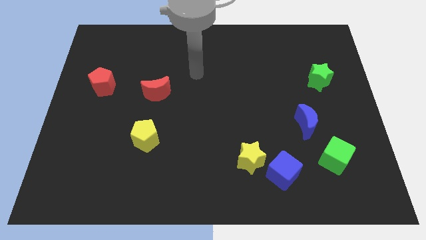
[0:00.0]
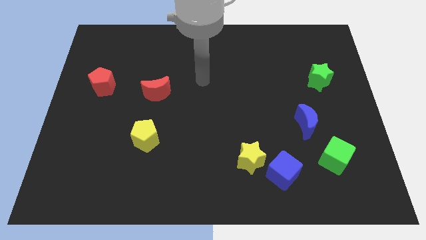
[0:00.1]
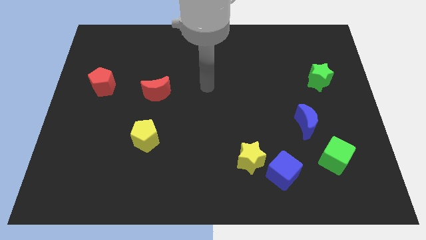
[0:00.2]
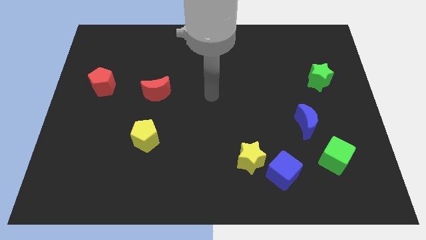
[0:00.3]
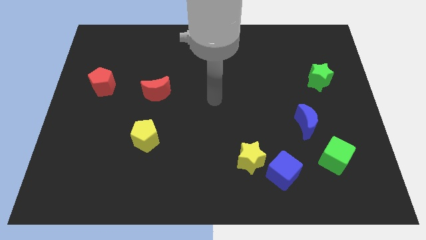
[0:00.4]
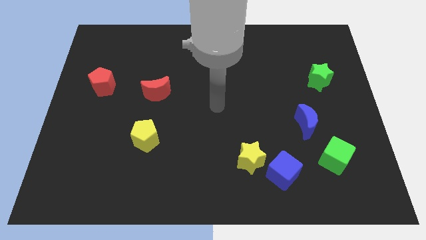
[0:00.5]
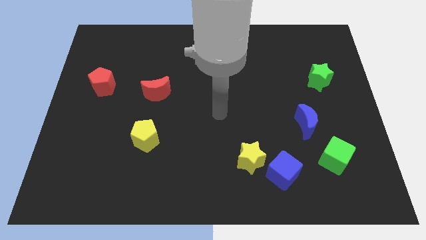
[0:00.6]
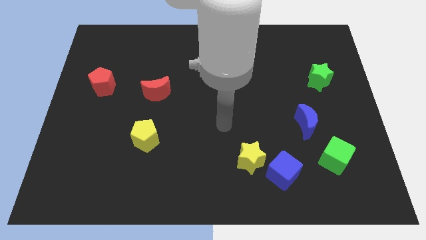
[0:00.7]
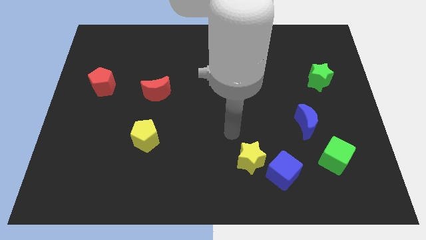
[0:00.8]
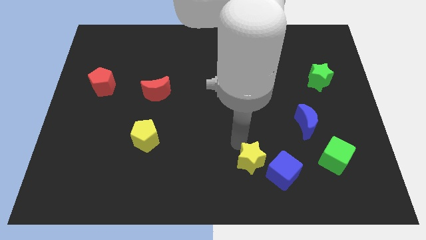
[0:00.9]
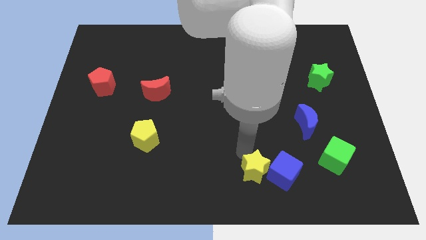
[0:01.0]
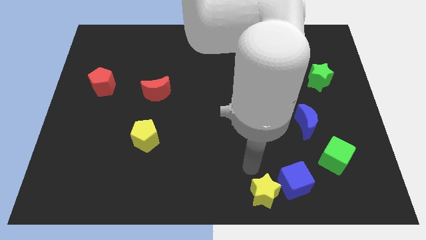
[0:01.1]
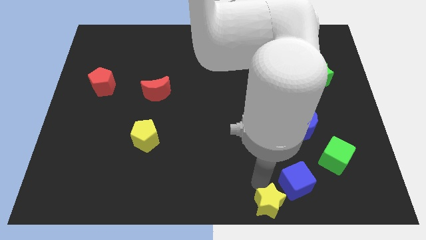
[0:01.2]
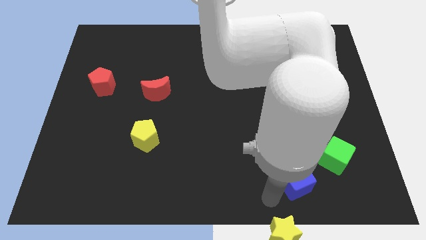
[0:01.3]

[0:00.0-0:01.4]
pull the blue cube apart from the yellow star

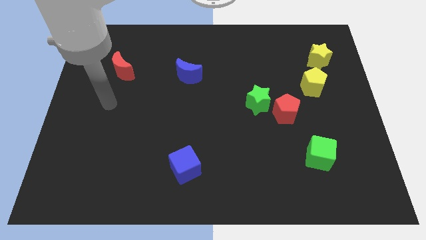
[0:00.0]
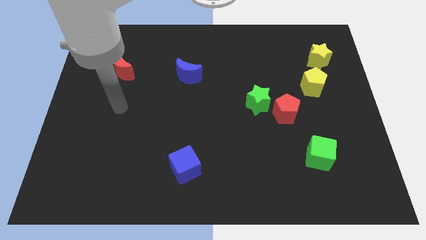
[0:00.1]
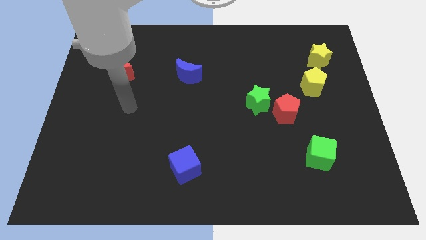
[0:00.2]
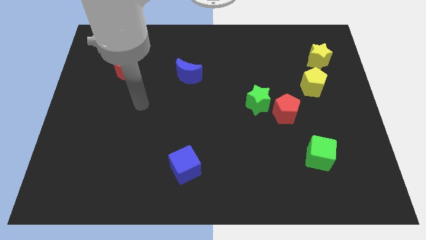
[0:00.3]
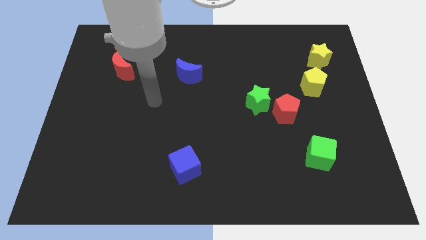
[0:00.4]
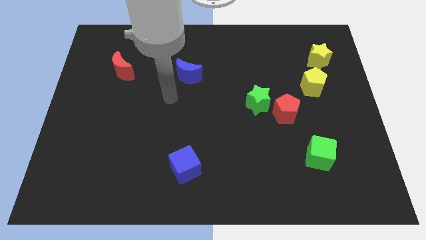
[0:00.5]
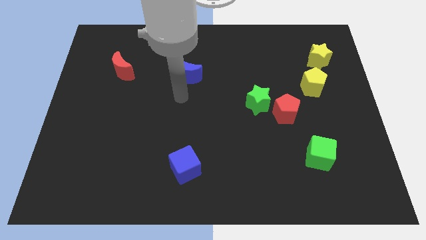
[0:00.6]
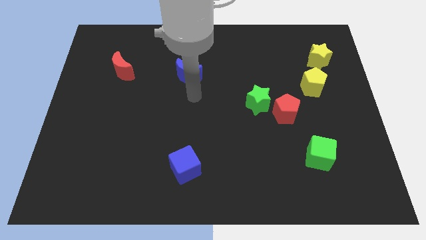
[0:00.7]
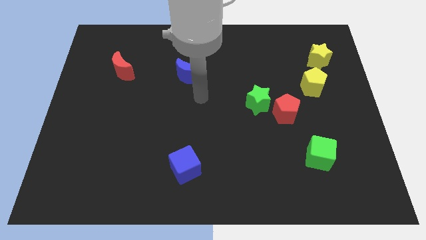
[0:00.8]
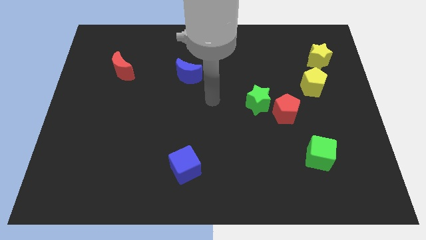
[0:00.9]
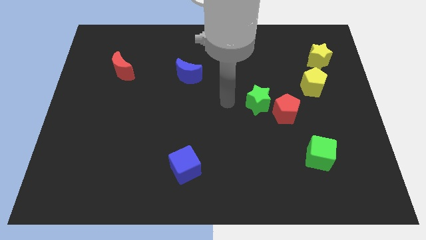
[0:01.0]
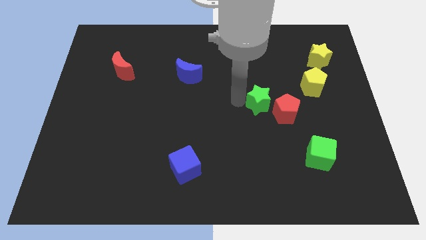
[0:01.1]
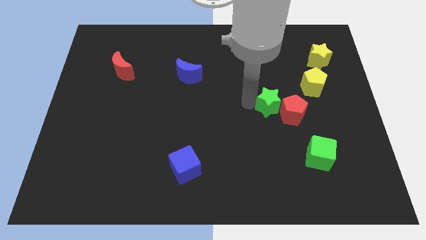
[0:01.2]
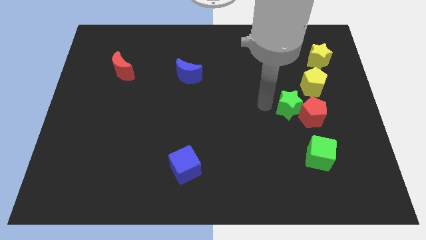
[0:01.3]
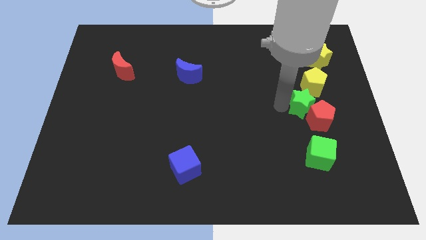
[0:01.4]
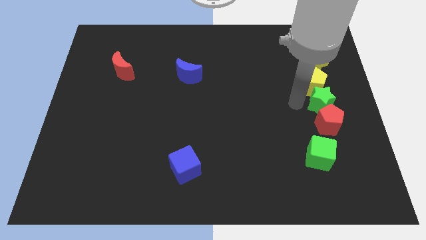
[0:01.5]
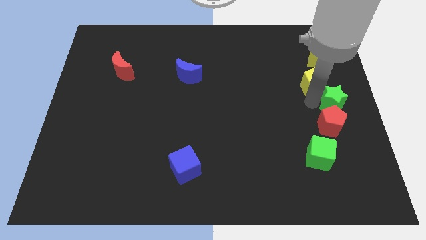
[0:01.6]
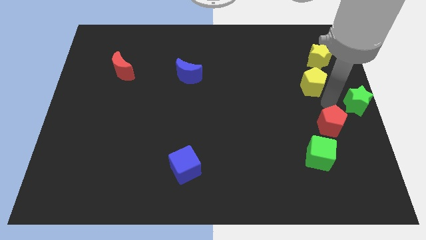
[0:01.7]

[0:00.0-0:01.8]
pull the red pentagon apart from the green star

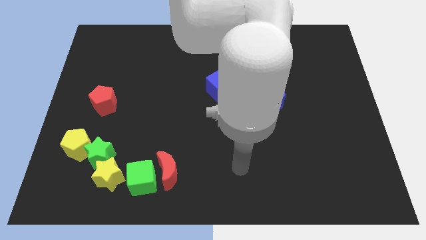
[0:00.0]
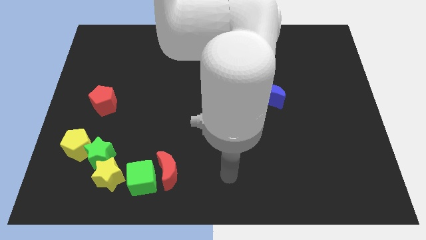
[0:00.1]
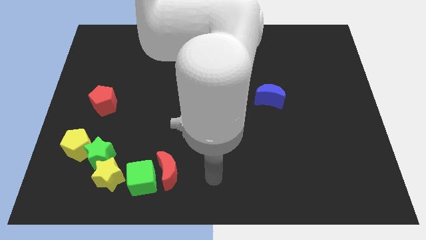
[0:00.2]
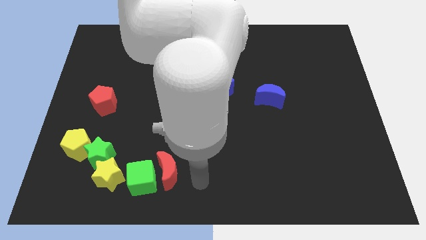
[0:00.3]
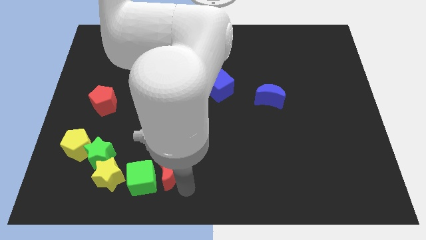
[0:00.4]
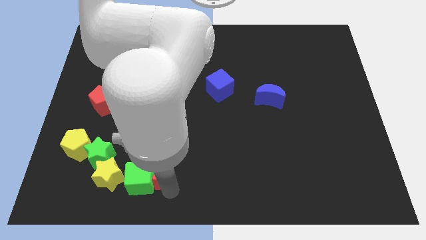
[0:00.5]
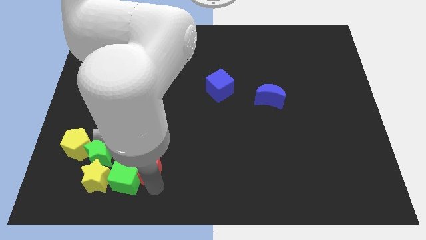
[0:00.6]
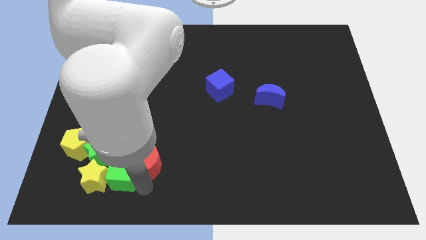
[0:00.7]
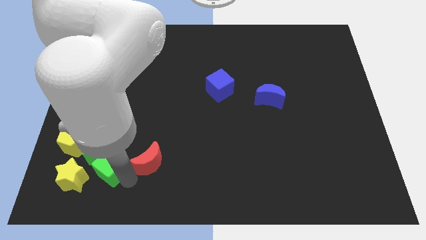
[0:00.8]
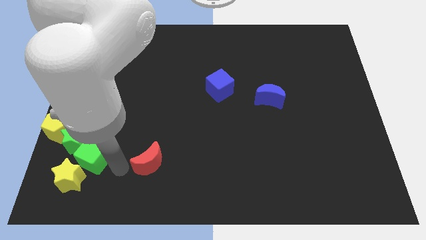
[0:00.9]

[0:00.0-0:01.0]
move the red moon away from the green cube

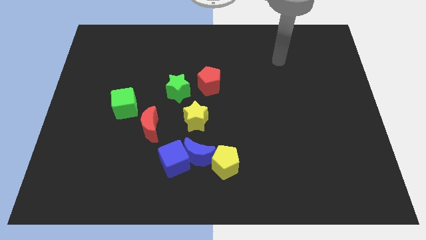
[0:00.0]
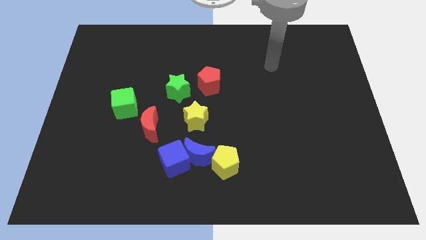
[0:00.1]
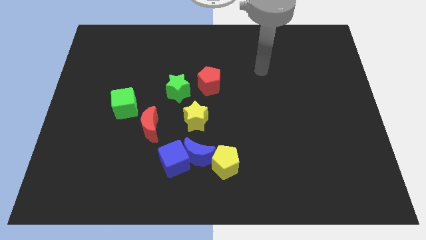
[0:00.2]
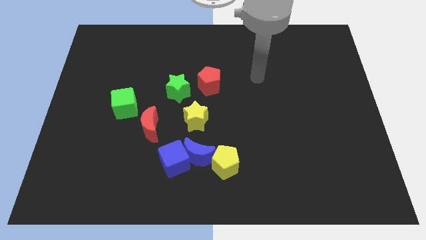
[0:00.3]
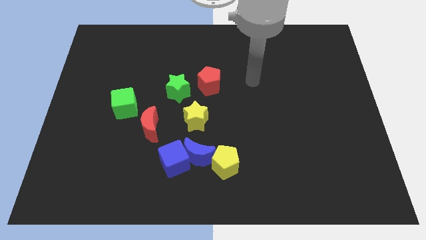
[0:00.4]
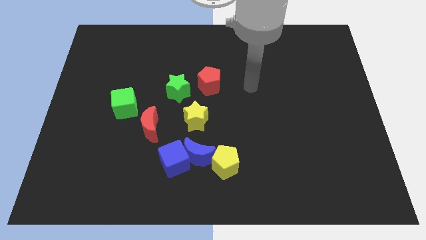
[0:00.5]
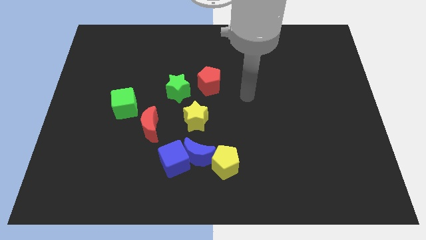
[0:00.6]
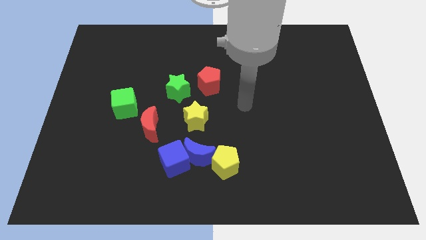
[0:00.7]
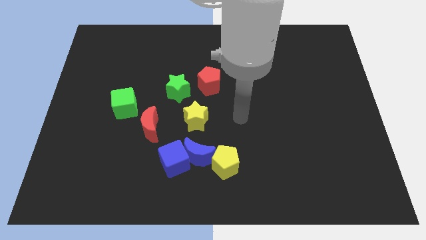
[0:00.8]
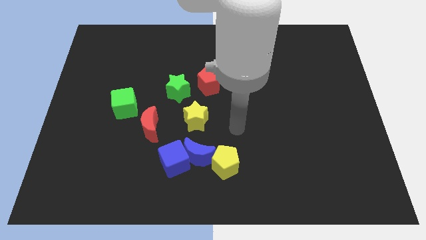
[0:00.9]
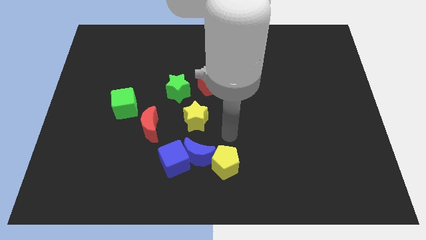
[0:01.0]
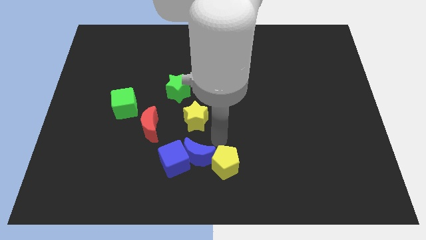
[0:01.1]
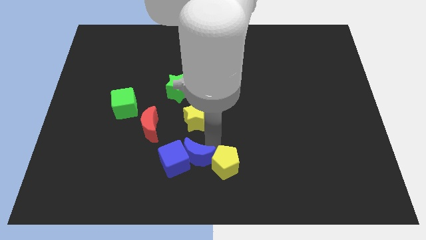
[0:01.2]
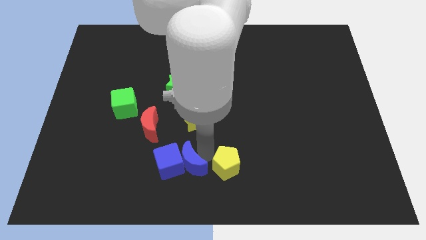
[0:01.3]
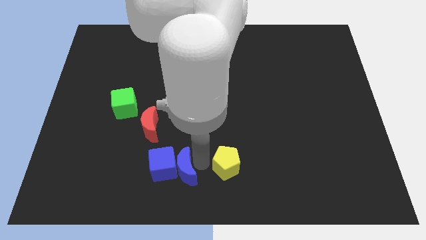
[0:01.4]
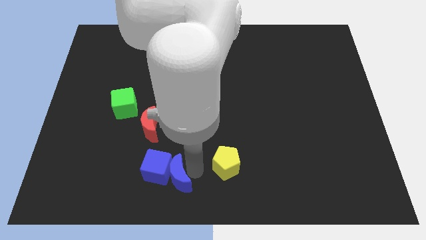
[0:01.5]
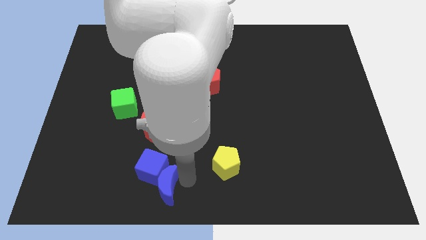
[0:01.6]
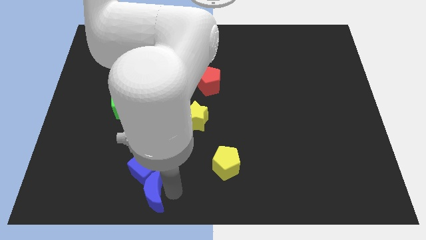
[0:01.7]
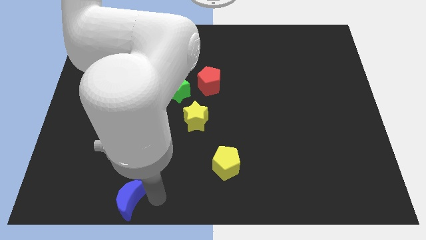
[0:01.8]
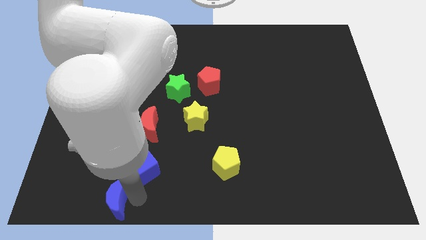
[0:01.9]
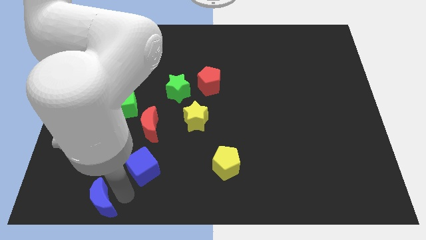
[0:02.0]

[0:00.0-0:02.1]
move the blue cube away from the blue moon

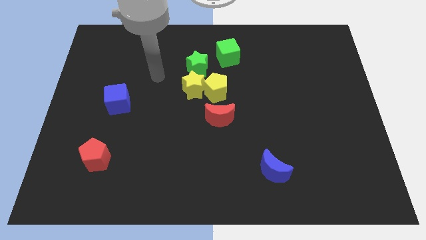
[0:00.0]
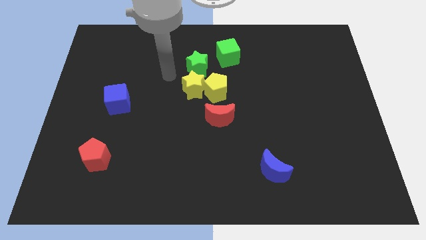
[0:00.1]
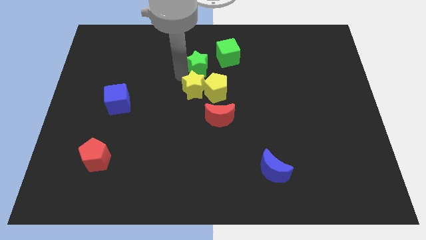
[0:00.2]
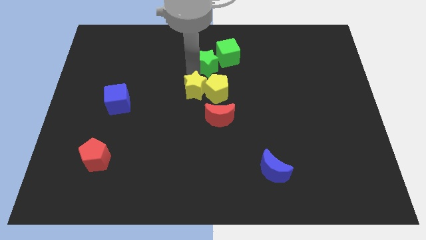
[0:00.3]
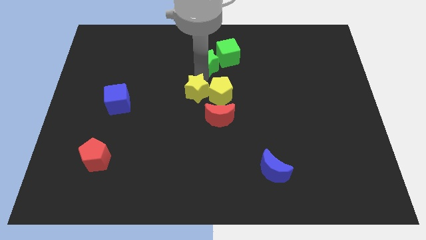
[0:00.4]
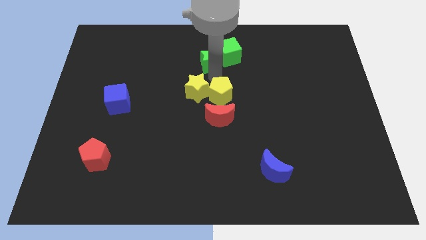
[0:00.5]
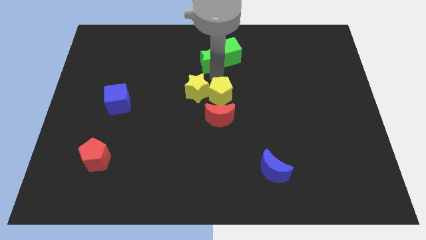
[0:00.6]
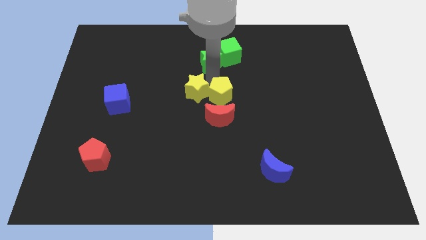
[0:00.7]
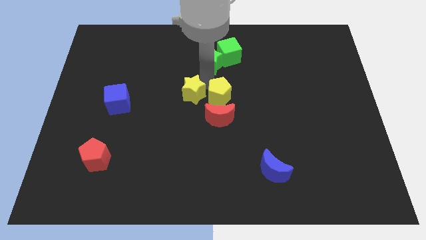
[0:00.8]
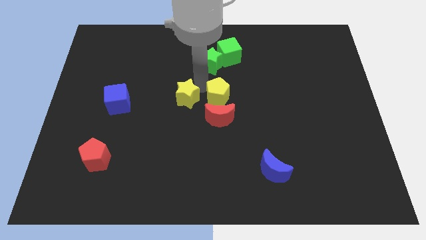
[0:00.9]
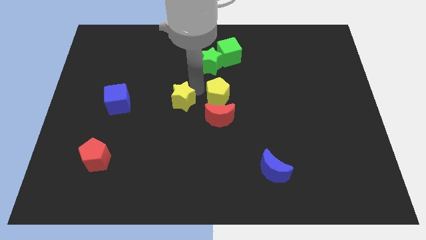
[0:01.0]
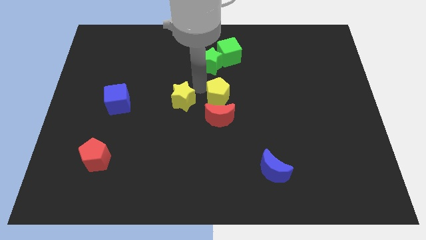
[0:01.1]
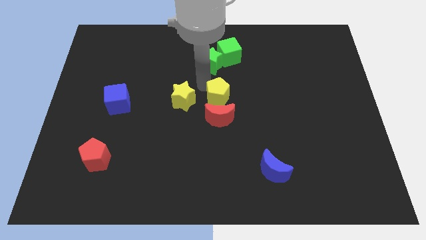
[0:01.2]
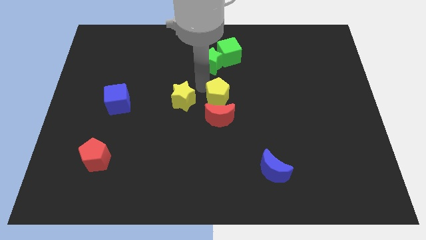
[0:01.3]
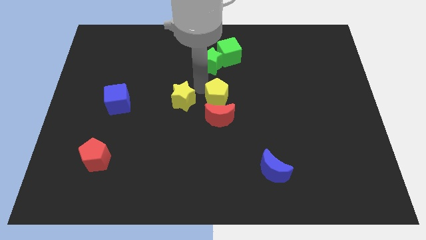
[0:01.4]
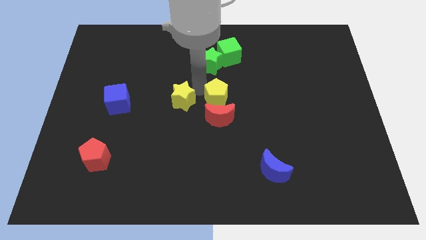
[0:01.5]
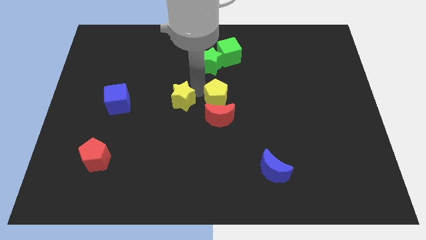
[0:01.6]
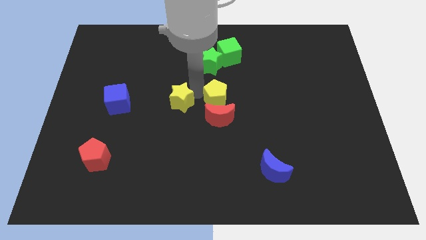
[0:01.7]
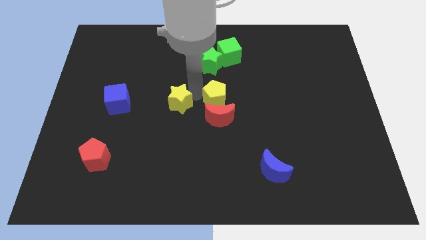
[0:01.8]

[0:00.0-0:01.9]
pull the yellow star apart from the yellow pentagon and green star

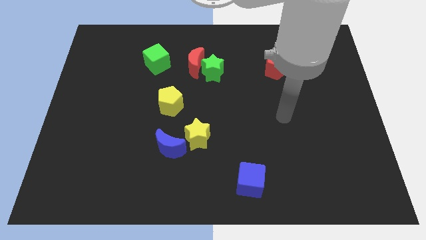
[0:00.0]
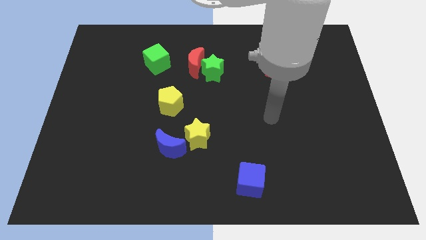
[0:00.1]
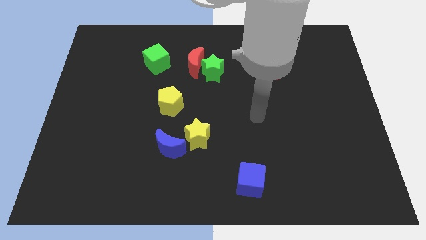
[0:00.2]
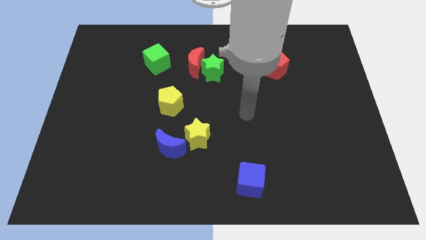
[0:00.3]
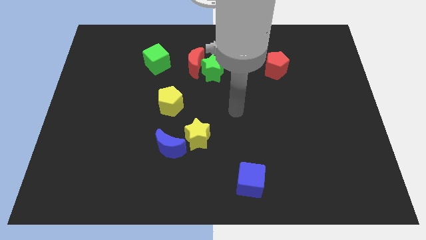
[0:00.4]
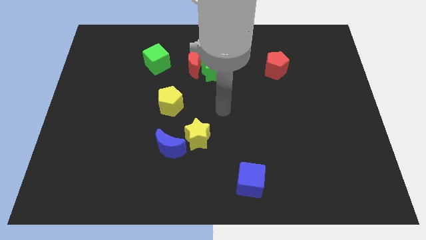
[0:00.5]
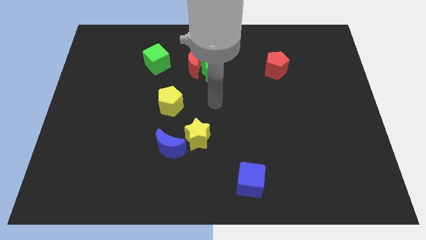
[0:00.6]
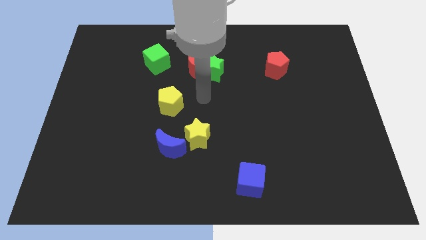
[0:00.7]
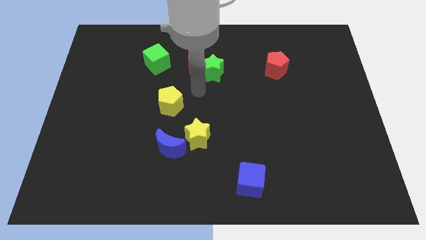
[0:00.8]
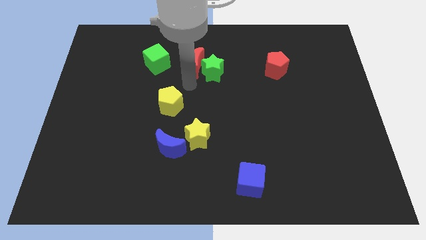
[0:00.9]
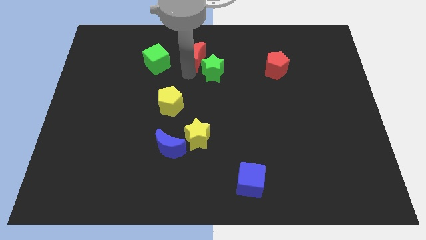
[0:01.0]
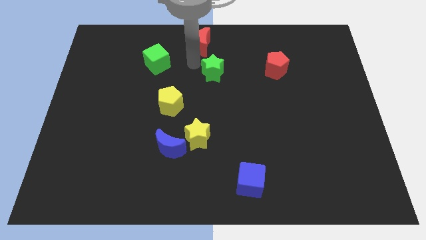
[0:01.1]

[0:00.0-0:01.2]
separate the green star from the red moon
